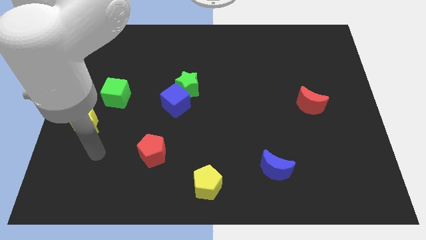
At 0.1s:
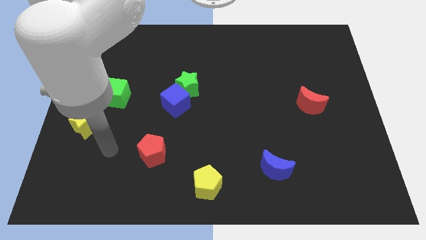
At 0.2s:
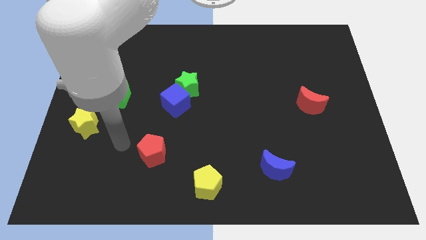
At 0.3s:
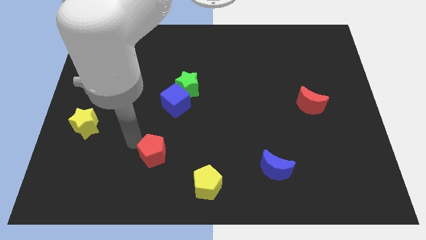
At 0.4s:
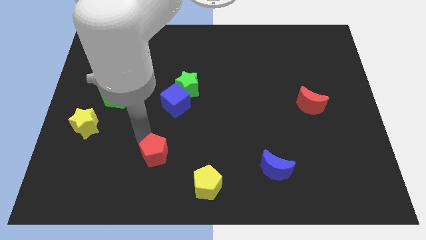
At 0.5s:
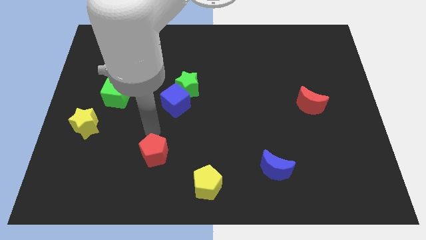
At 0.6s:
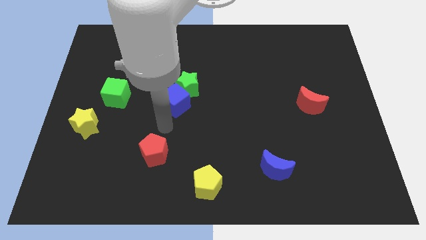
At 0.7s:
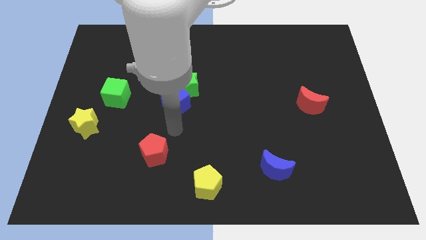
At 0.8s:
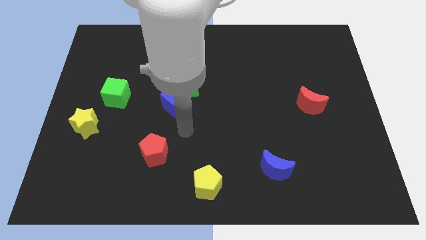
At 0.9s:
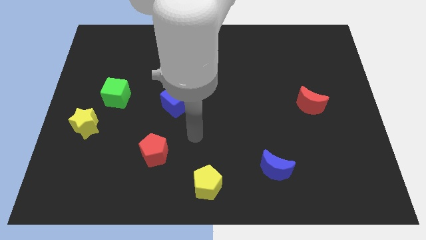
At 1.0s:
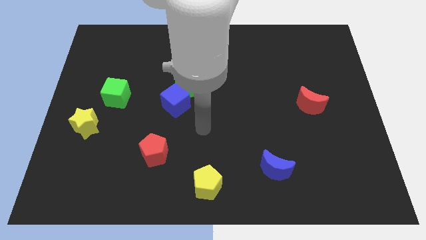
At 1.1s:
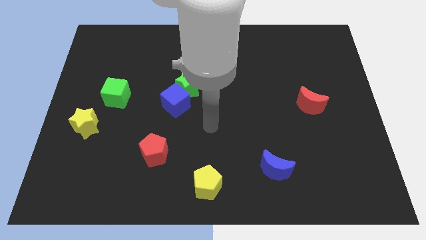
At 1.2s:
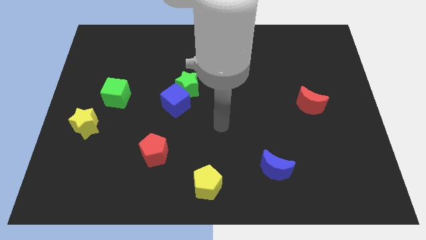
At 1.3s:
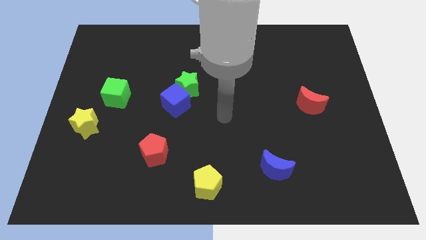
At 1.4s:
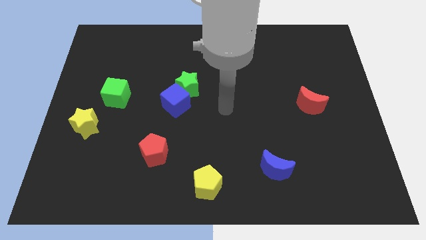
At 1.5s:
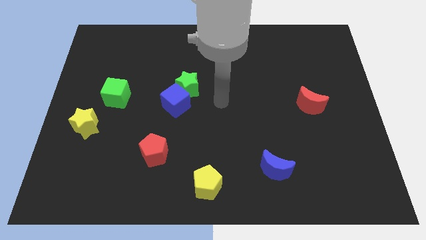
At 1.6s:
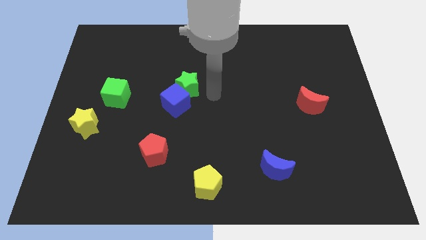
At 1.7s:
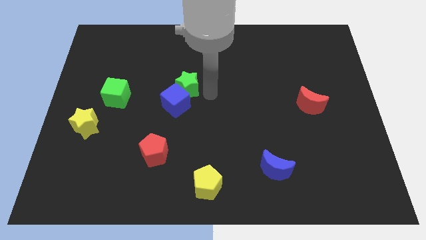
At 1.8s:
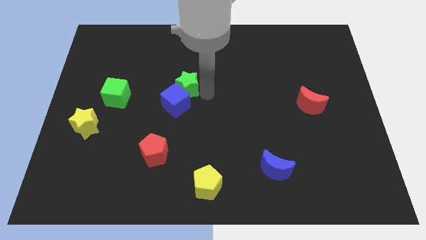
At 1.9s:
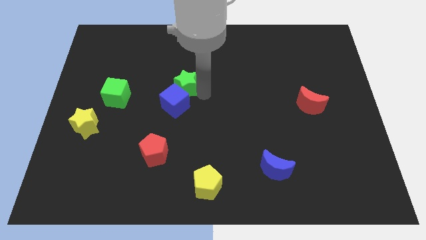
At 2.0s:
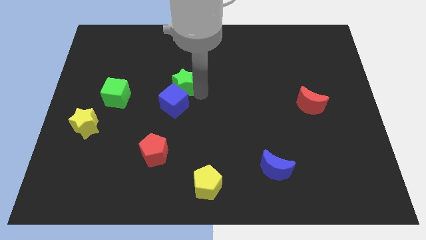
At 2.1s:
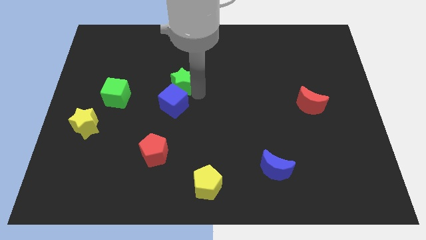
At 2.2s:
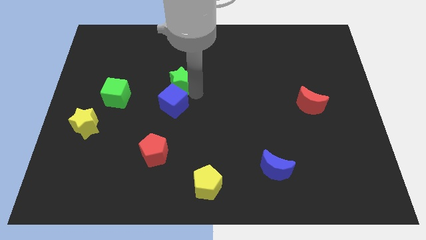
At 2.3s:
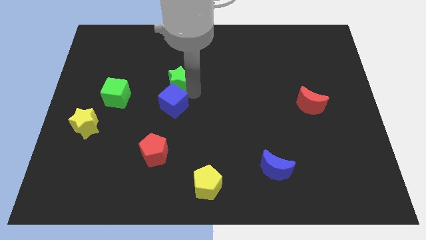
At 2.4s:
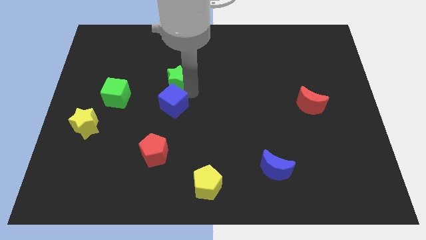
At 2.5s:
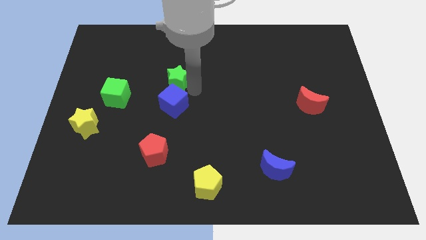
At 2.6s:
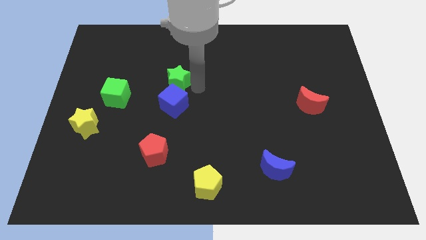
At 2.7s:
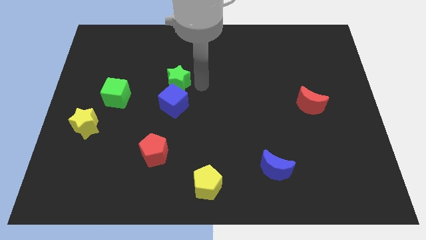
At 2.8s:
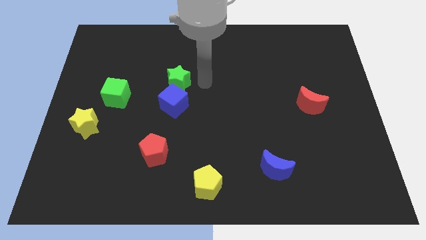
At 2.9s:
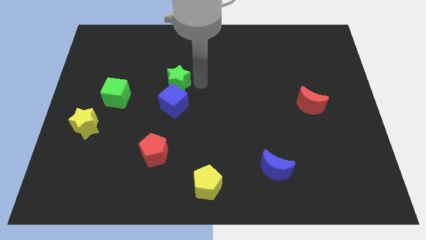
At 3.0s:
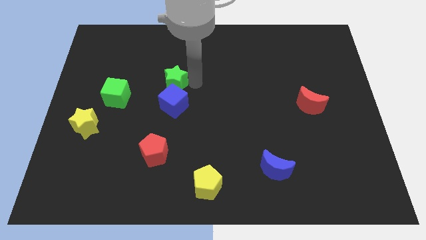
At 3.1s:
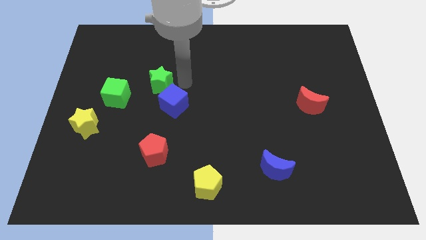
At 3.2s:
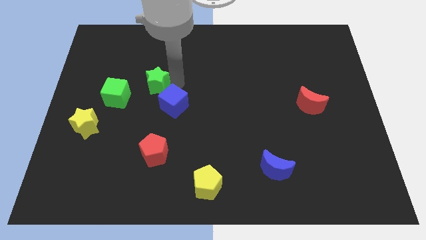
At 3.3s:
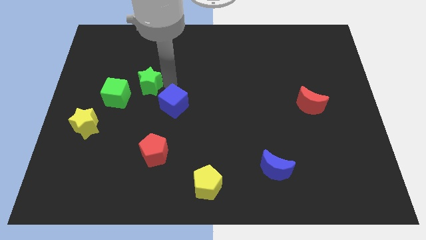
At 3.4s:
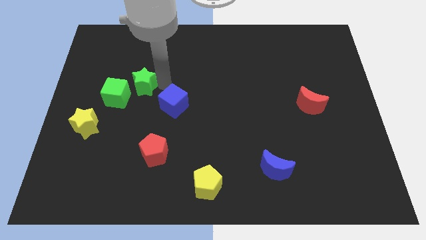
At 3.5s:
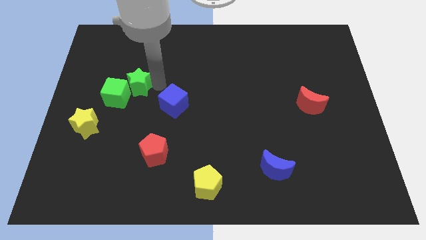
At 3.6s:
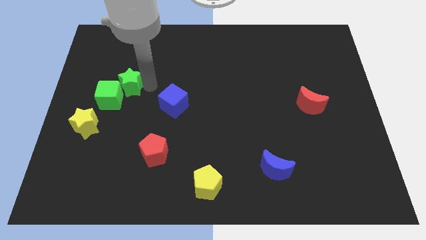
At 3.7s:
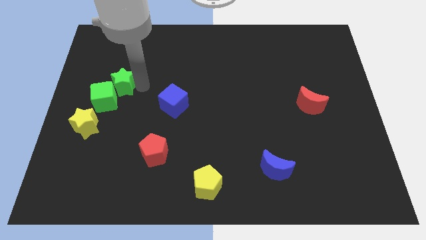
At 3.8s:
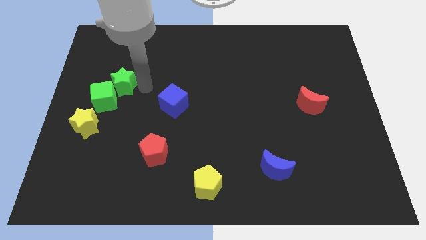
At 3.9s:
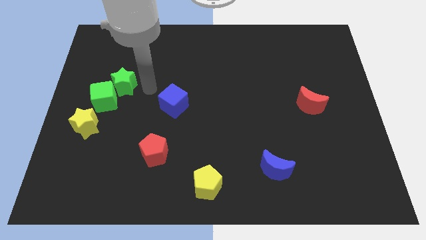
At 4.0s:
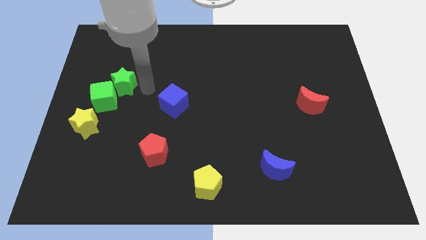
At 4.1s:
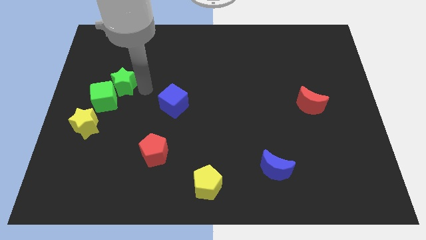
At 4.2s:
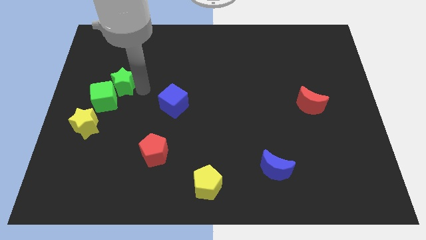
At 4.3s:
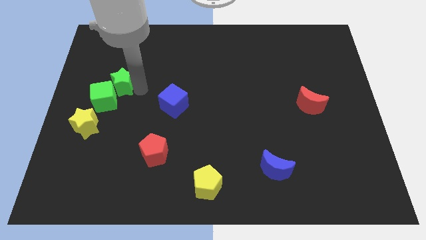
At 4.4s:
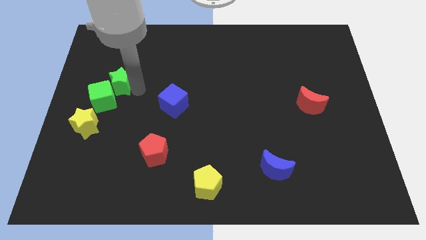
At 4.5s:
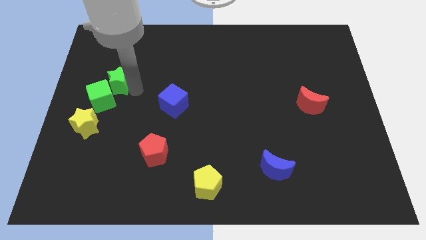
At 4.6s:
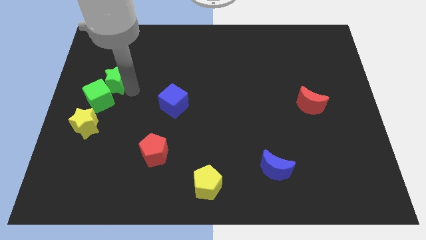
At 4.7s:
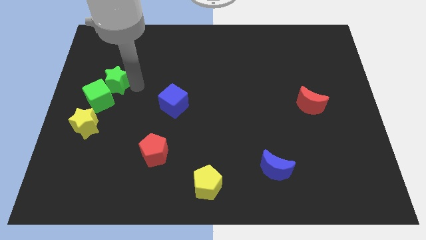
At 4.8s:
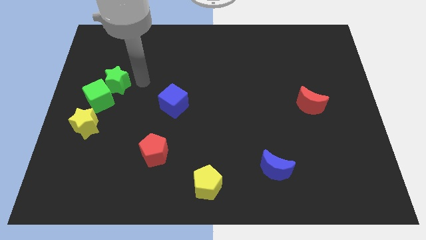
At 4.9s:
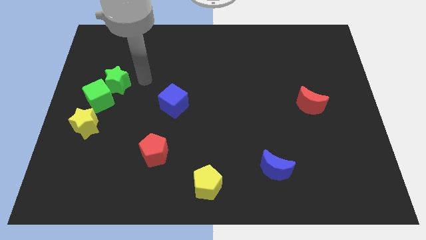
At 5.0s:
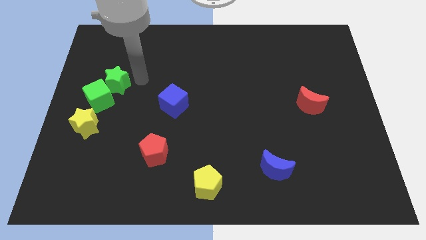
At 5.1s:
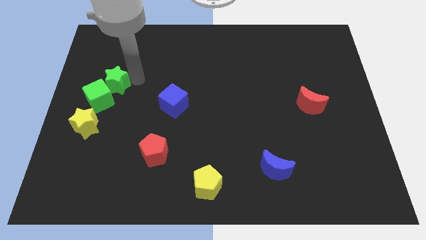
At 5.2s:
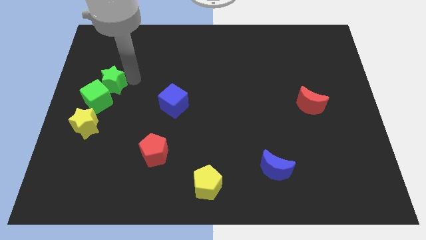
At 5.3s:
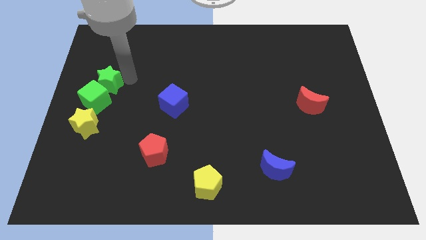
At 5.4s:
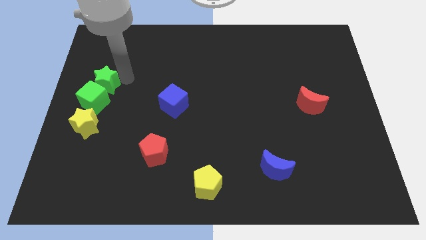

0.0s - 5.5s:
move the green star to the left side

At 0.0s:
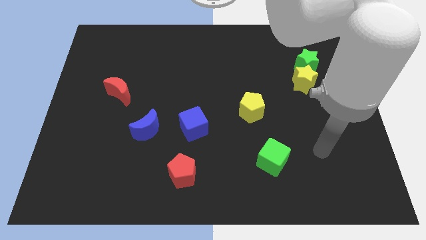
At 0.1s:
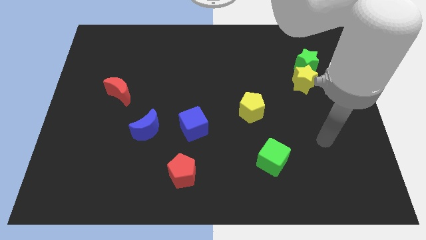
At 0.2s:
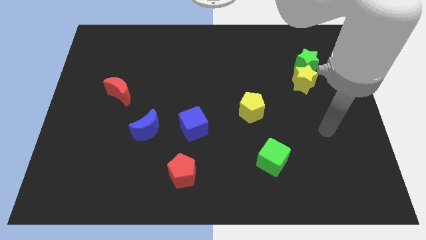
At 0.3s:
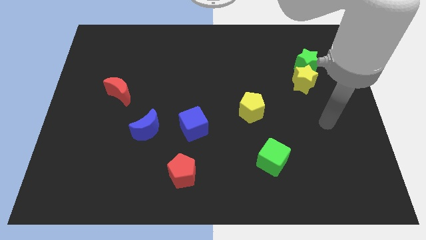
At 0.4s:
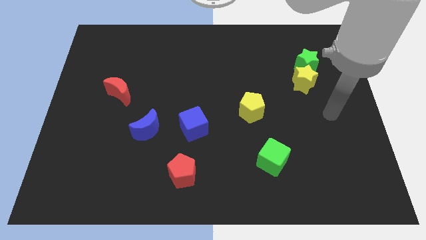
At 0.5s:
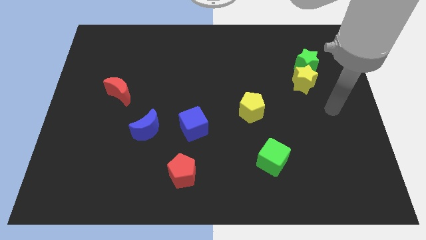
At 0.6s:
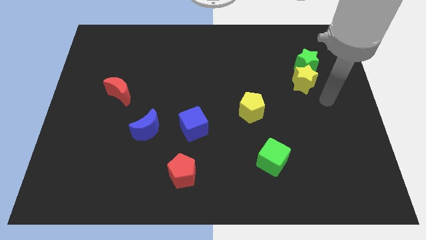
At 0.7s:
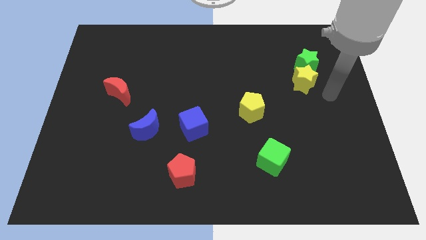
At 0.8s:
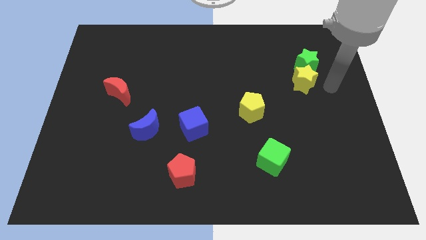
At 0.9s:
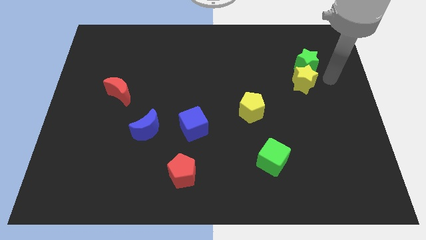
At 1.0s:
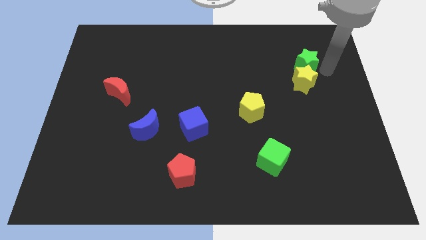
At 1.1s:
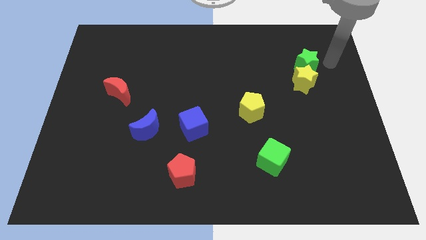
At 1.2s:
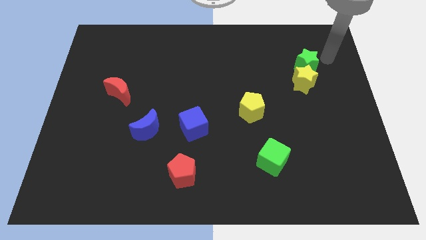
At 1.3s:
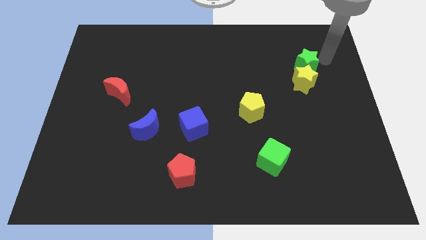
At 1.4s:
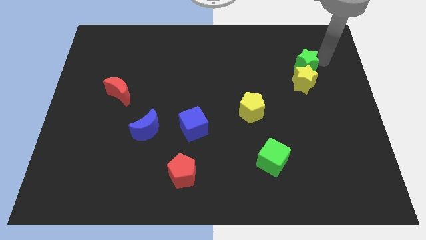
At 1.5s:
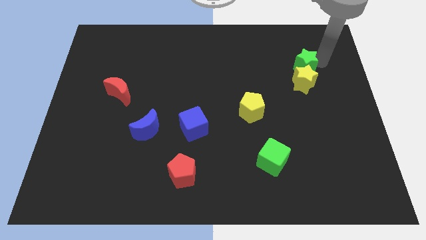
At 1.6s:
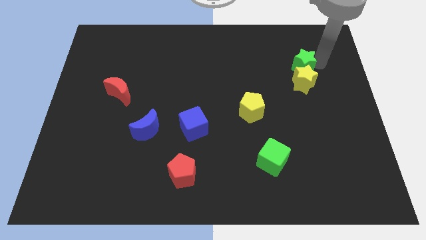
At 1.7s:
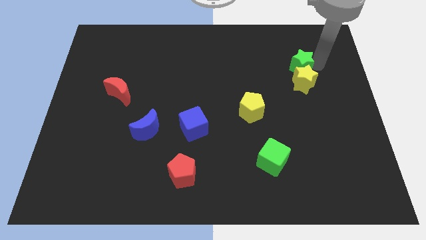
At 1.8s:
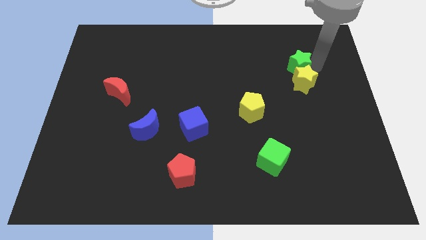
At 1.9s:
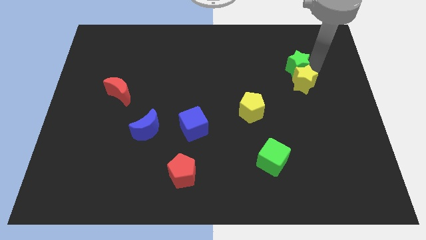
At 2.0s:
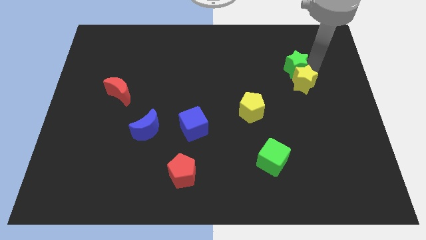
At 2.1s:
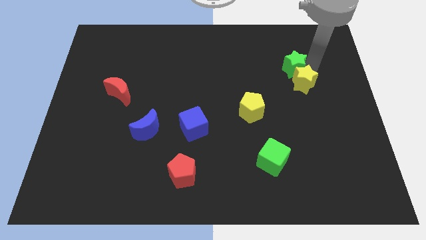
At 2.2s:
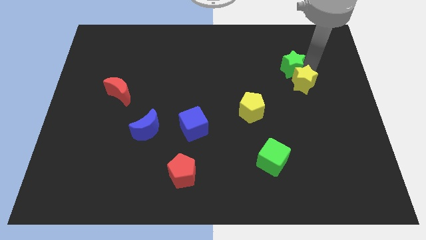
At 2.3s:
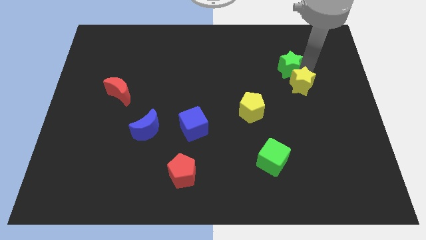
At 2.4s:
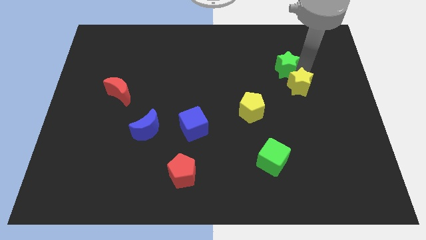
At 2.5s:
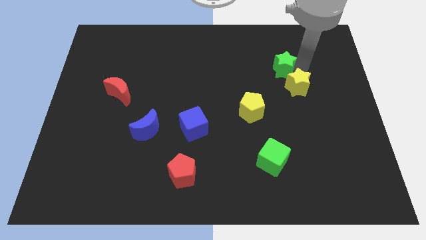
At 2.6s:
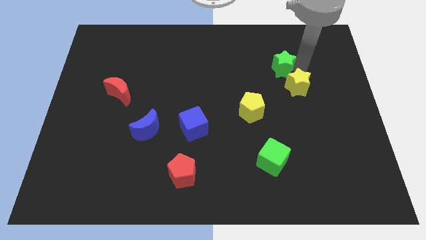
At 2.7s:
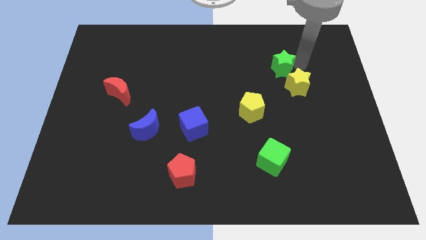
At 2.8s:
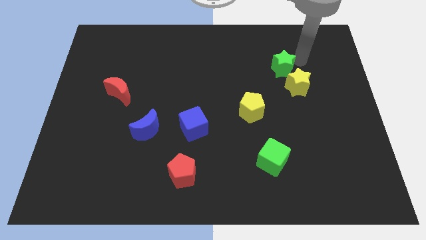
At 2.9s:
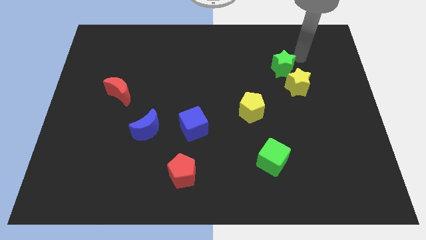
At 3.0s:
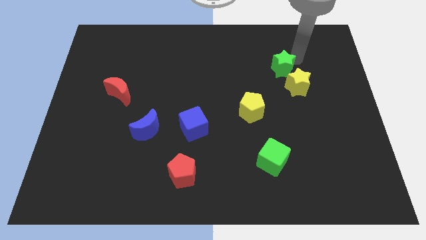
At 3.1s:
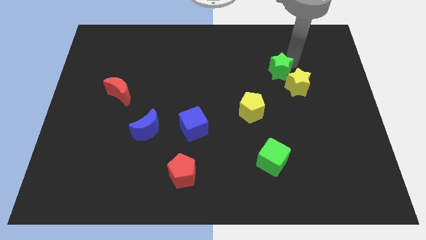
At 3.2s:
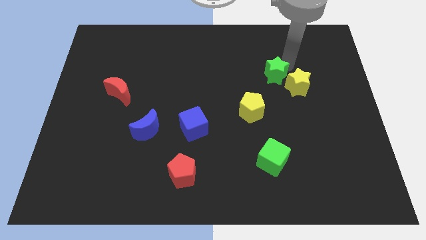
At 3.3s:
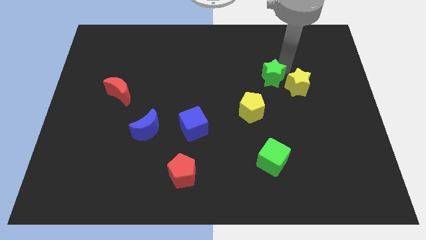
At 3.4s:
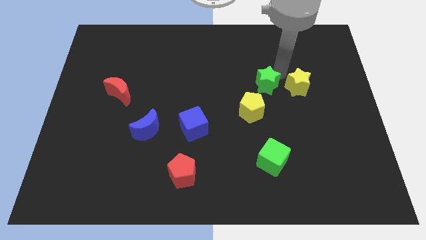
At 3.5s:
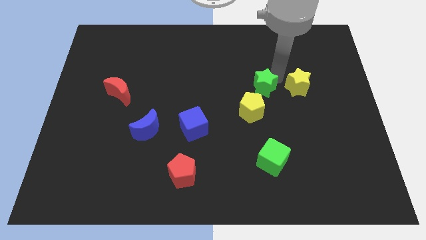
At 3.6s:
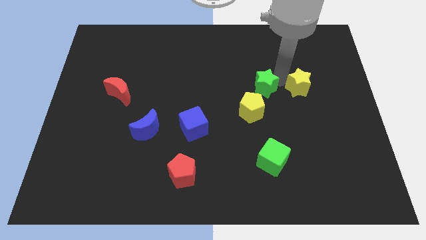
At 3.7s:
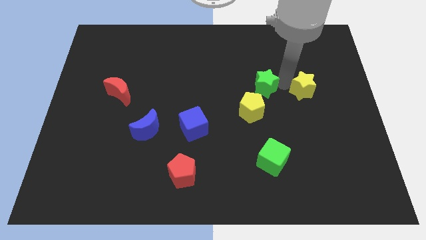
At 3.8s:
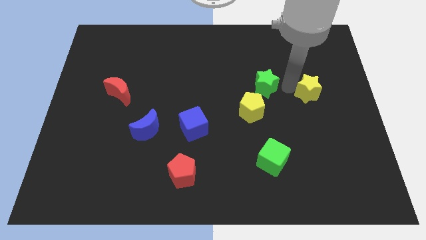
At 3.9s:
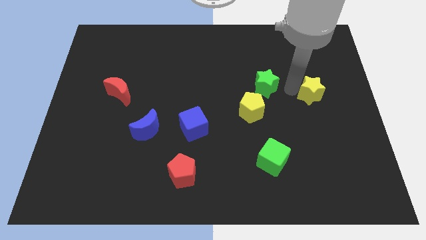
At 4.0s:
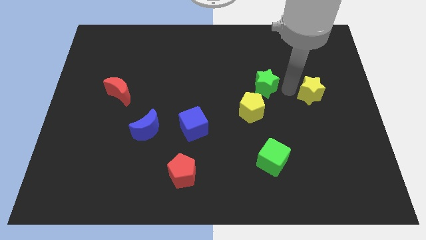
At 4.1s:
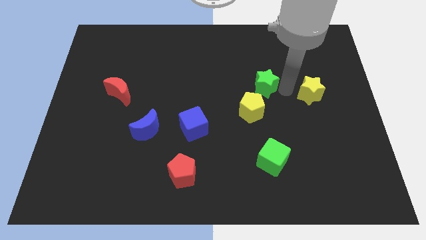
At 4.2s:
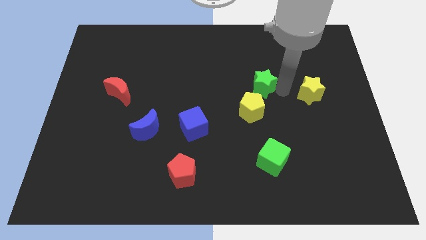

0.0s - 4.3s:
slide the green star to the center of the board
